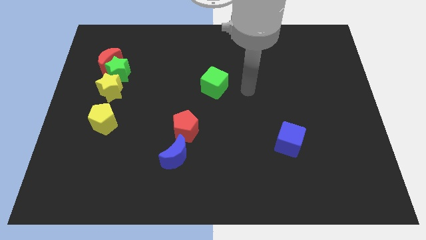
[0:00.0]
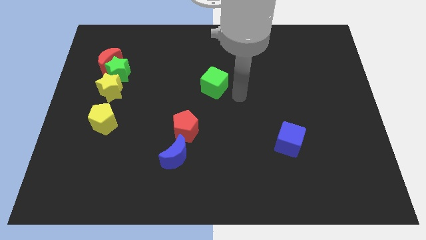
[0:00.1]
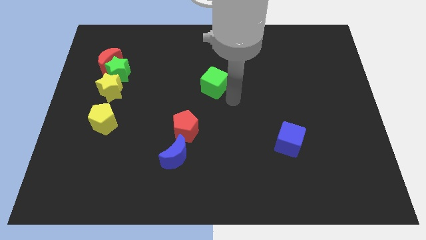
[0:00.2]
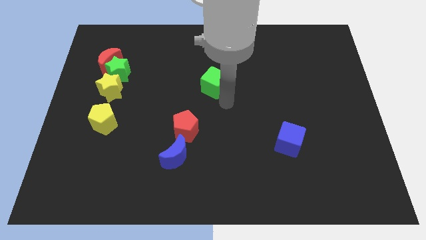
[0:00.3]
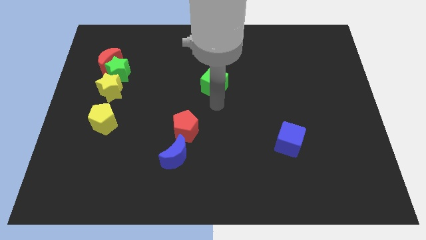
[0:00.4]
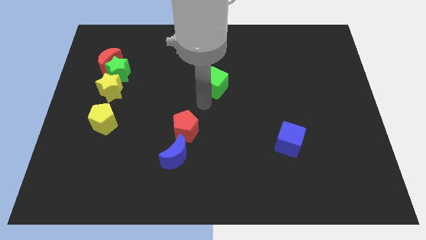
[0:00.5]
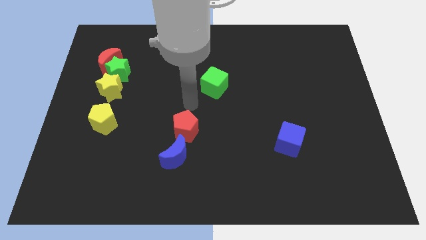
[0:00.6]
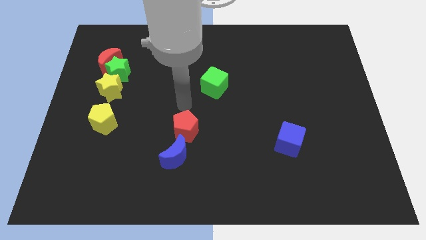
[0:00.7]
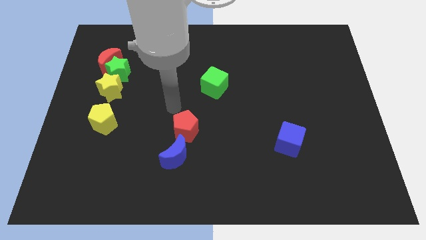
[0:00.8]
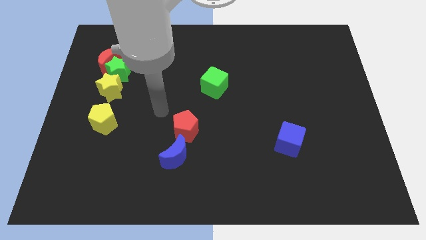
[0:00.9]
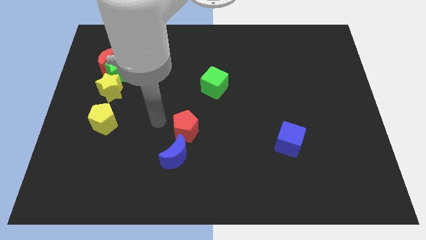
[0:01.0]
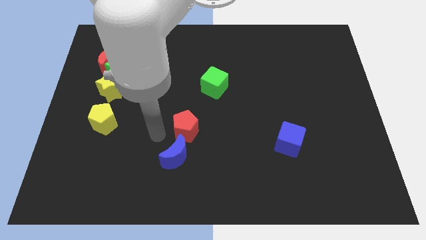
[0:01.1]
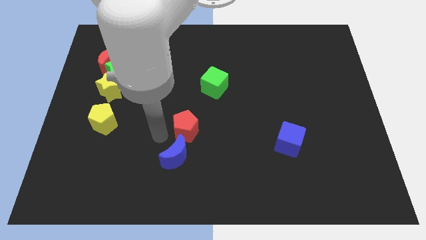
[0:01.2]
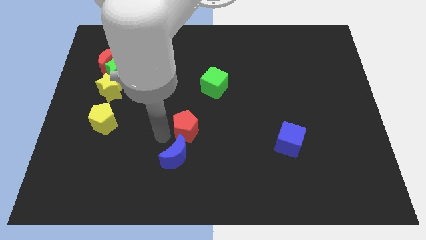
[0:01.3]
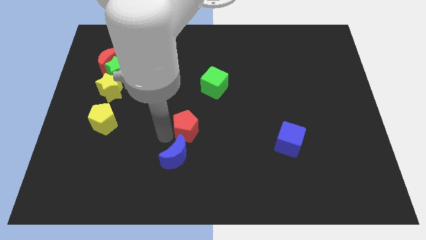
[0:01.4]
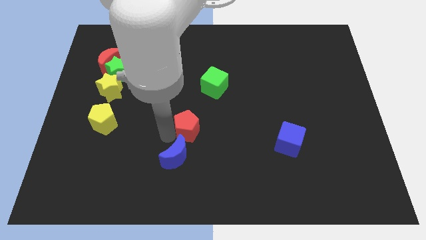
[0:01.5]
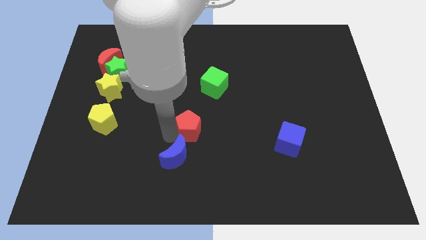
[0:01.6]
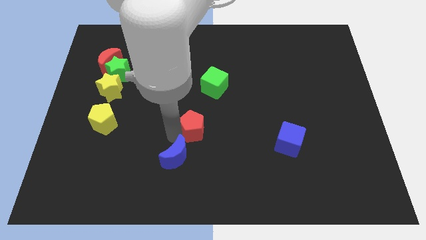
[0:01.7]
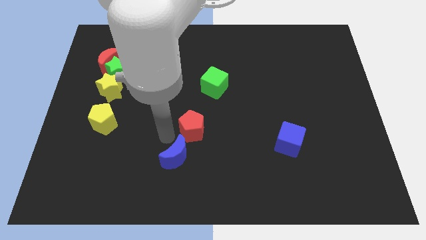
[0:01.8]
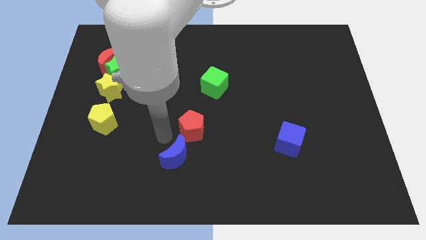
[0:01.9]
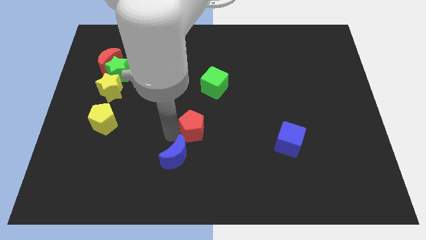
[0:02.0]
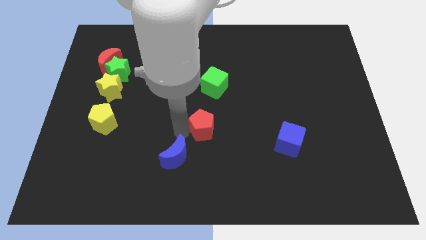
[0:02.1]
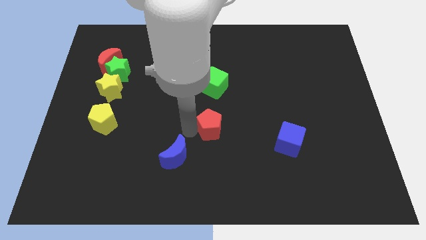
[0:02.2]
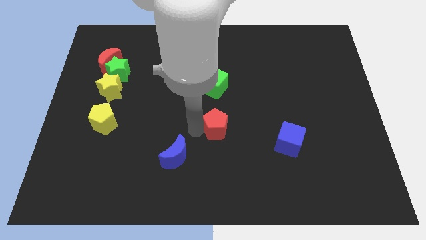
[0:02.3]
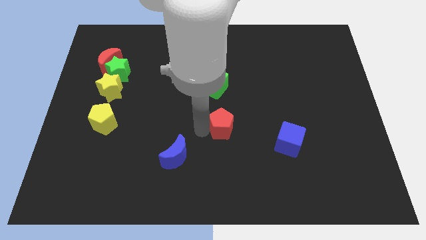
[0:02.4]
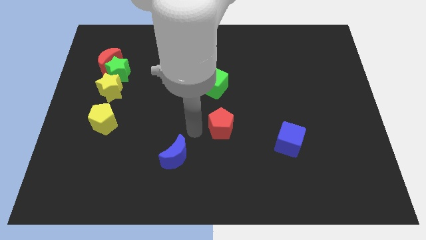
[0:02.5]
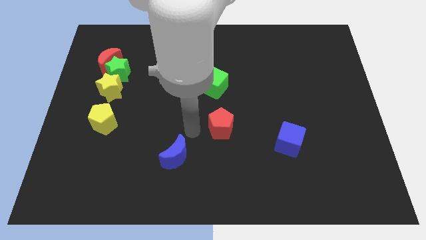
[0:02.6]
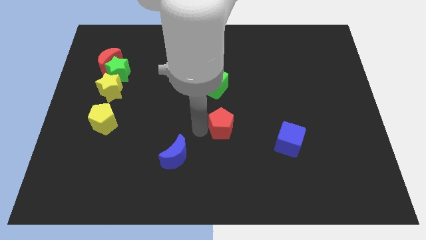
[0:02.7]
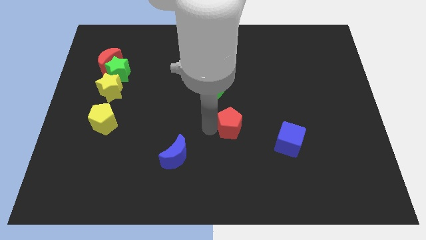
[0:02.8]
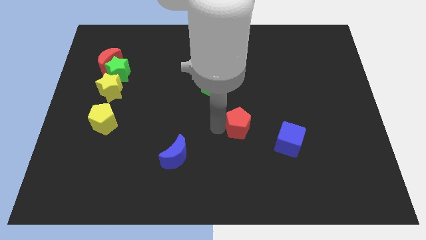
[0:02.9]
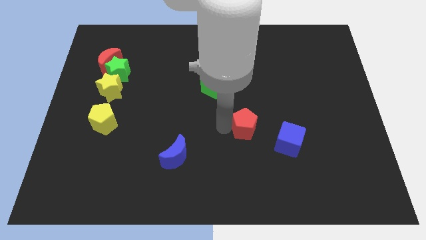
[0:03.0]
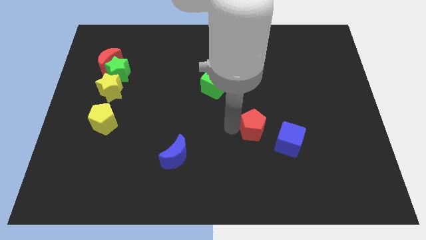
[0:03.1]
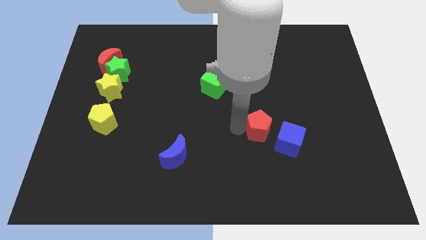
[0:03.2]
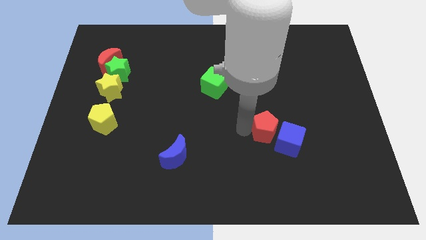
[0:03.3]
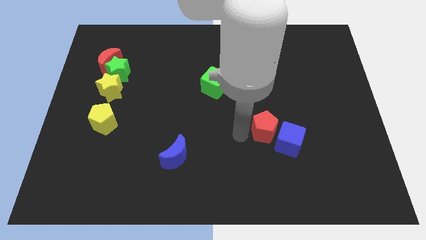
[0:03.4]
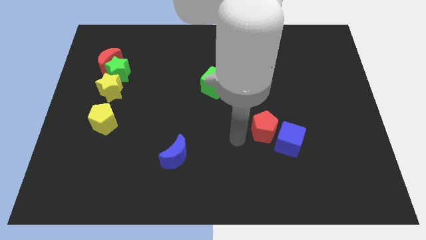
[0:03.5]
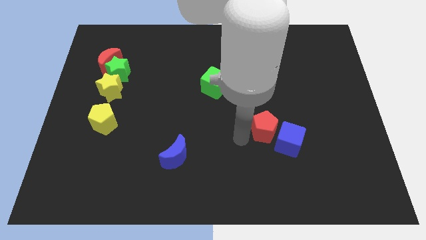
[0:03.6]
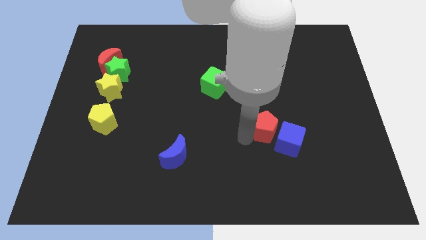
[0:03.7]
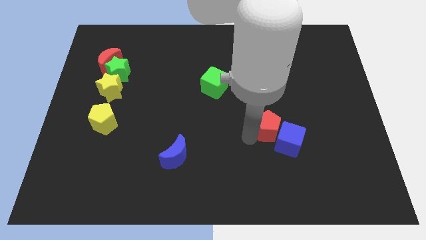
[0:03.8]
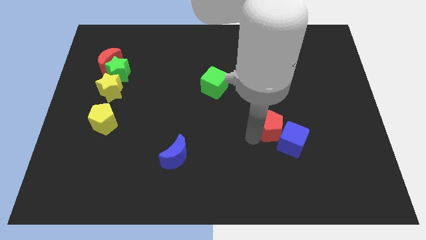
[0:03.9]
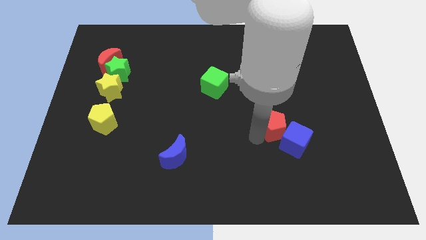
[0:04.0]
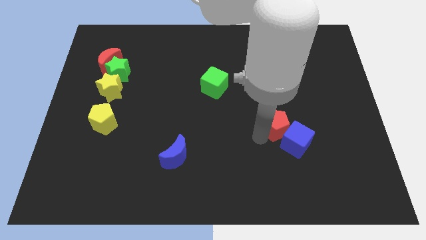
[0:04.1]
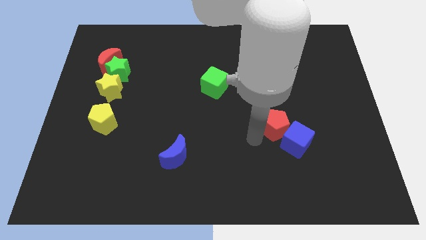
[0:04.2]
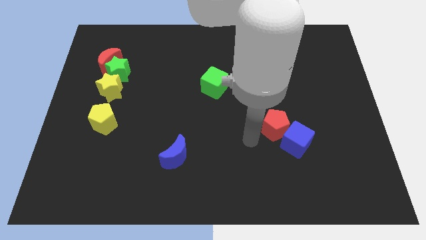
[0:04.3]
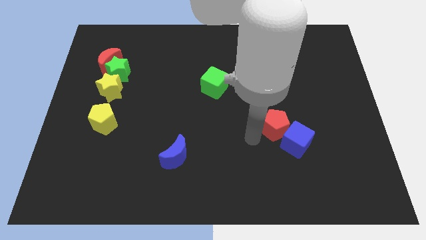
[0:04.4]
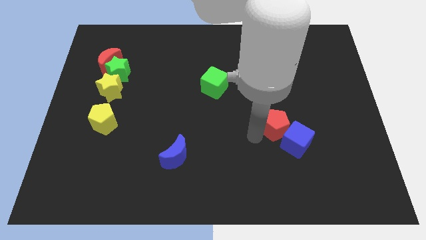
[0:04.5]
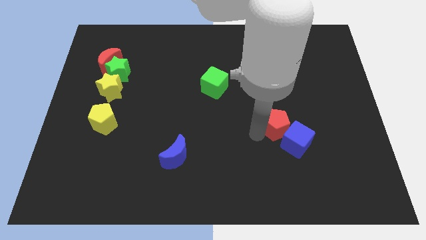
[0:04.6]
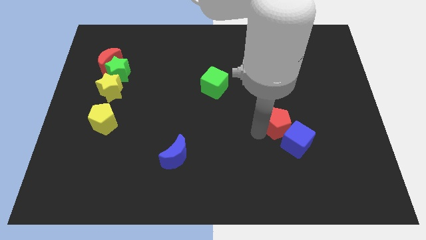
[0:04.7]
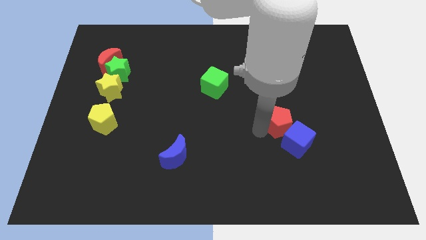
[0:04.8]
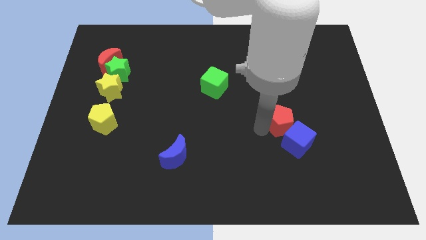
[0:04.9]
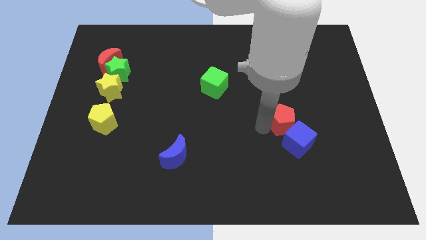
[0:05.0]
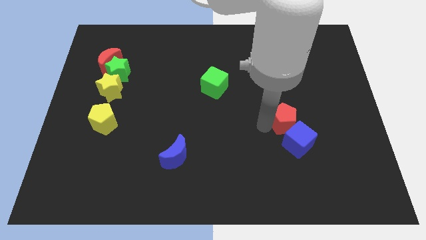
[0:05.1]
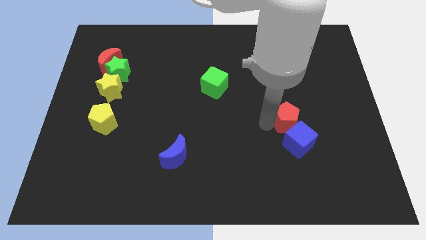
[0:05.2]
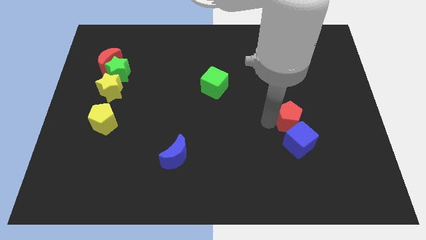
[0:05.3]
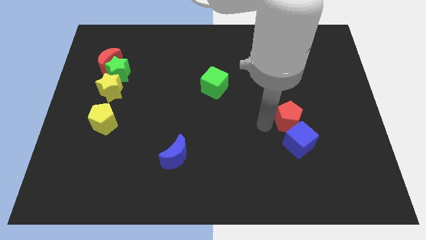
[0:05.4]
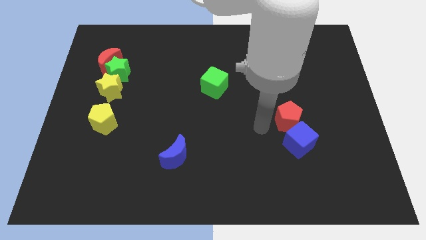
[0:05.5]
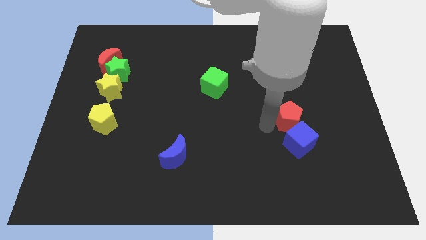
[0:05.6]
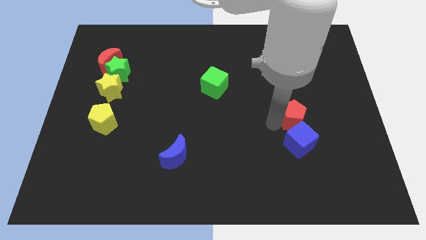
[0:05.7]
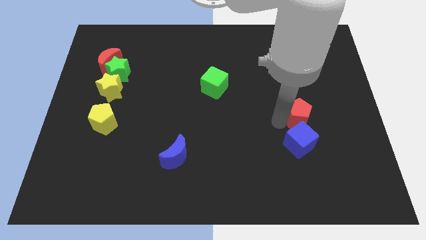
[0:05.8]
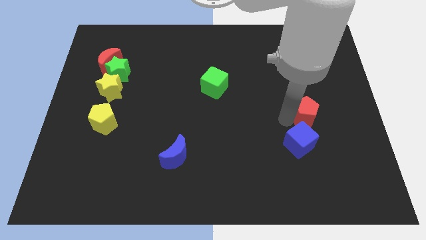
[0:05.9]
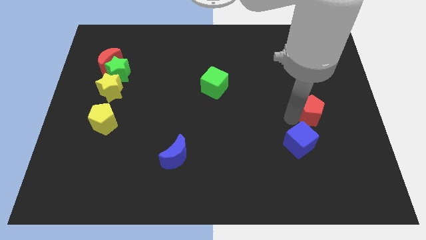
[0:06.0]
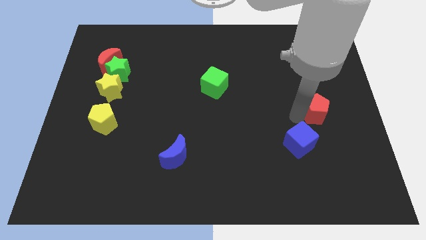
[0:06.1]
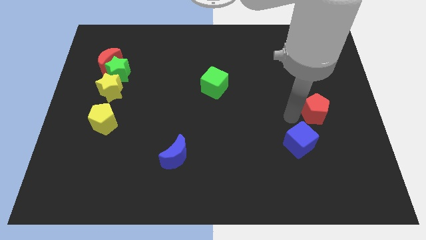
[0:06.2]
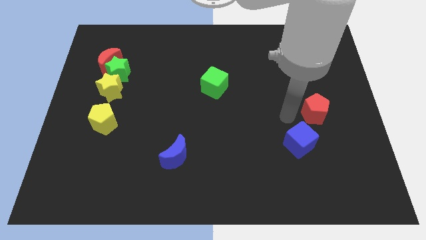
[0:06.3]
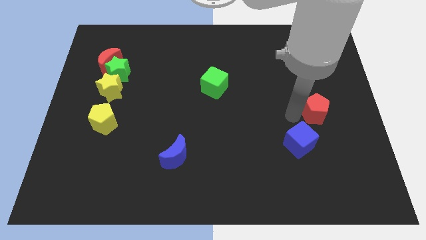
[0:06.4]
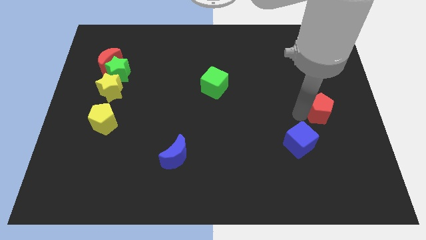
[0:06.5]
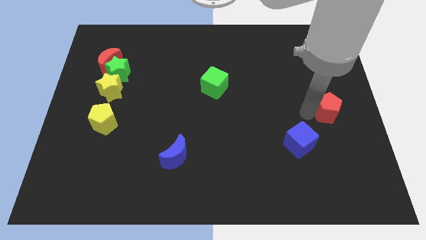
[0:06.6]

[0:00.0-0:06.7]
put the red pentagon to the center right
